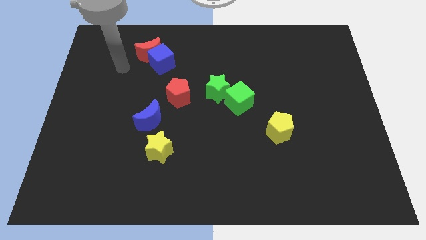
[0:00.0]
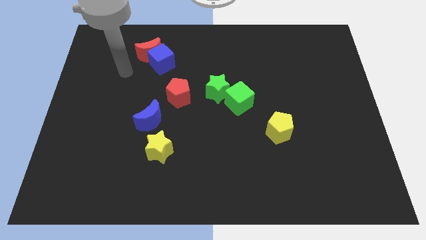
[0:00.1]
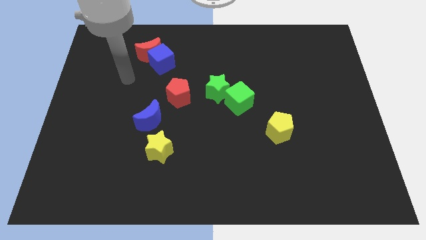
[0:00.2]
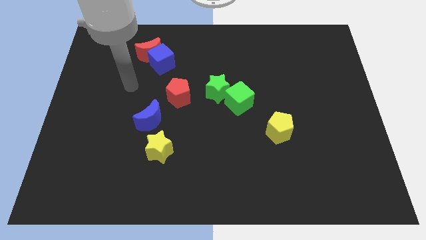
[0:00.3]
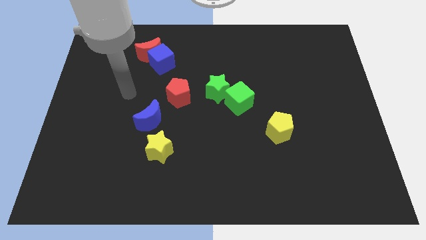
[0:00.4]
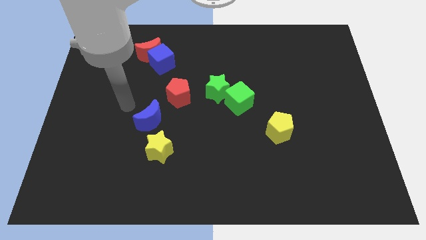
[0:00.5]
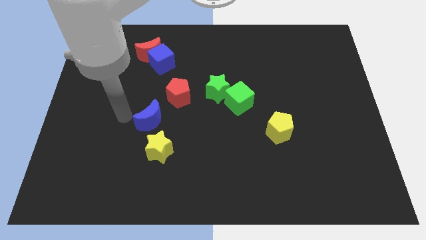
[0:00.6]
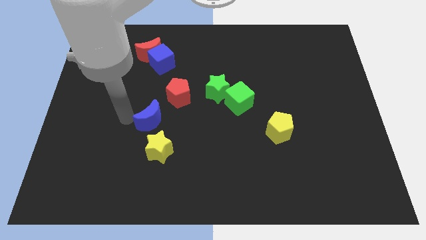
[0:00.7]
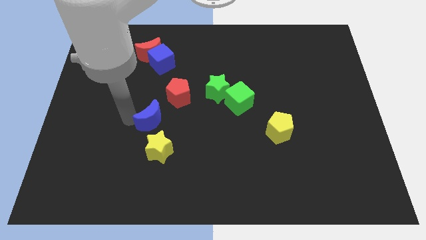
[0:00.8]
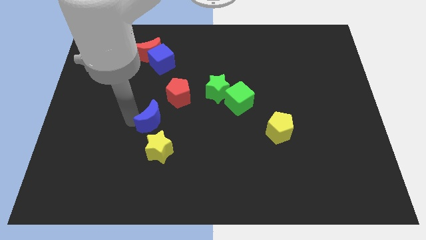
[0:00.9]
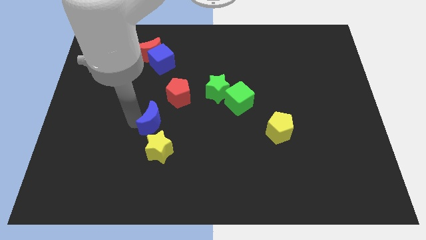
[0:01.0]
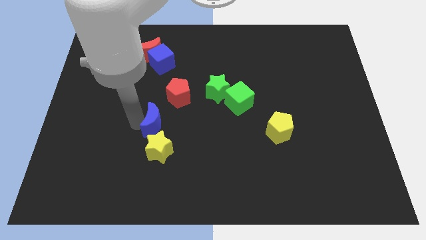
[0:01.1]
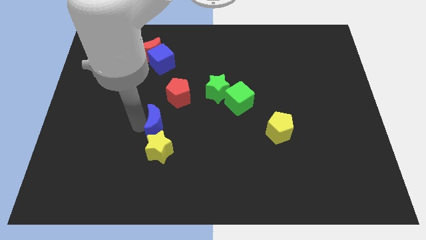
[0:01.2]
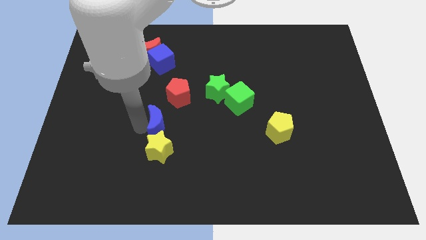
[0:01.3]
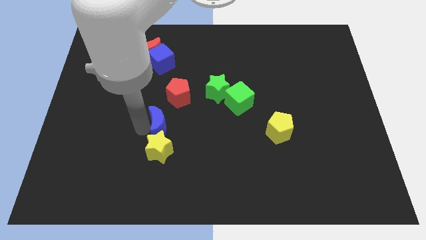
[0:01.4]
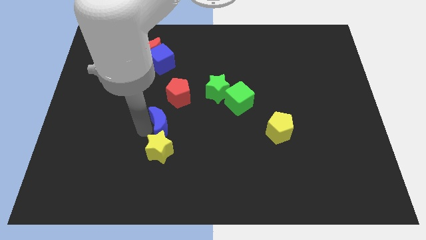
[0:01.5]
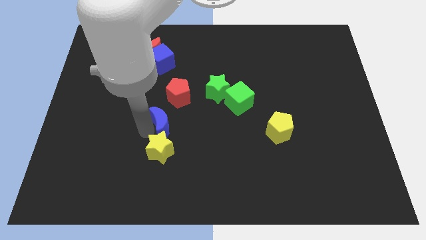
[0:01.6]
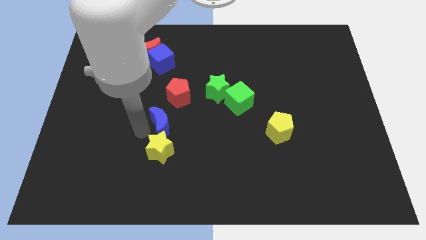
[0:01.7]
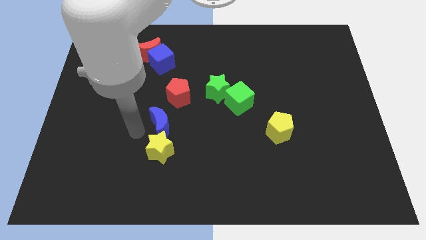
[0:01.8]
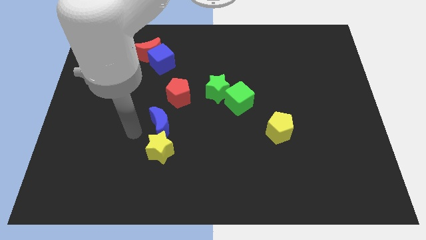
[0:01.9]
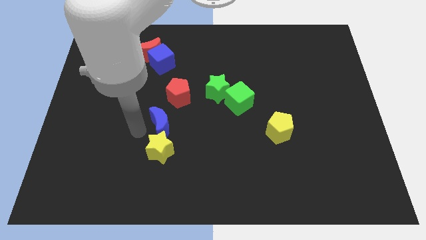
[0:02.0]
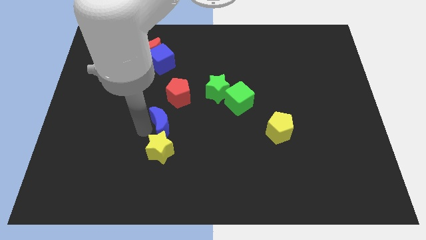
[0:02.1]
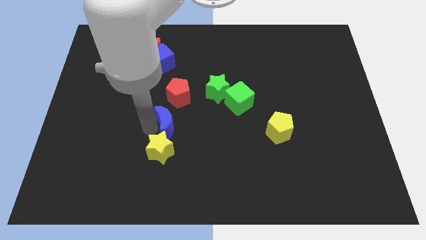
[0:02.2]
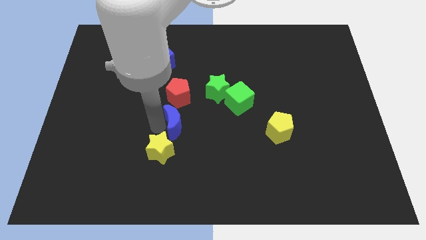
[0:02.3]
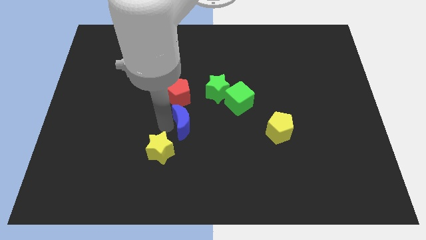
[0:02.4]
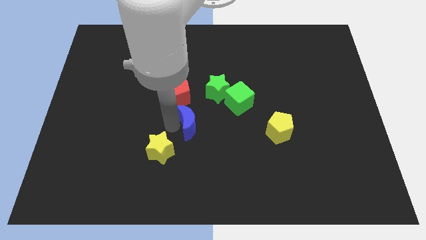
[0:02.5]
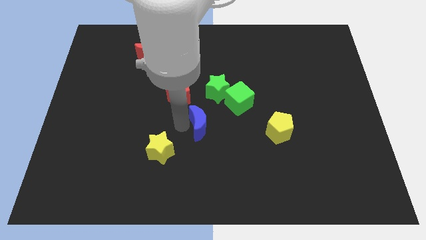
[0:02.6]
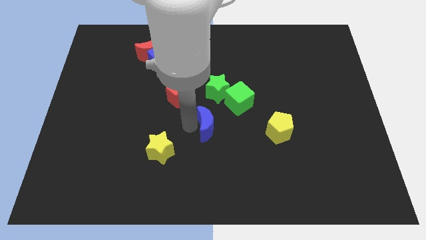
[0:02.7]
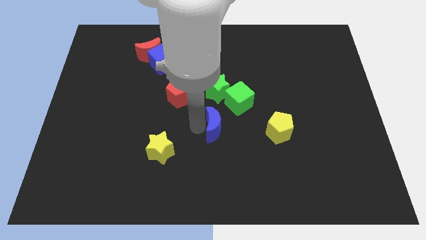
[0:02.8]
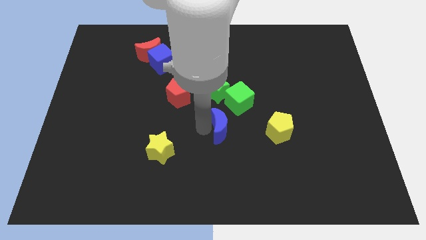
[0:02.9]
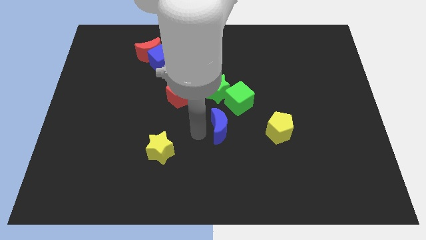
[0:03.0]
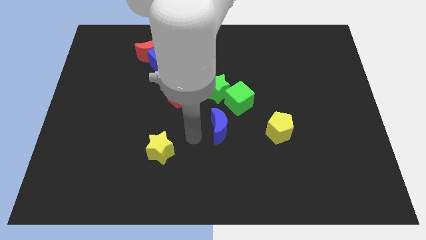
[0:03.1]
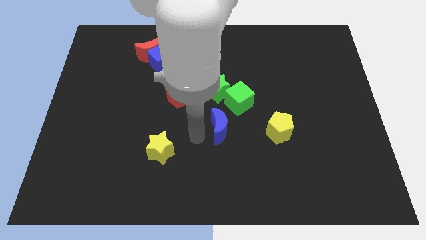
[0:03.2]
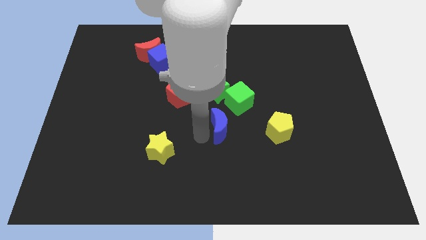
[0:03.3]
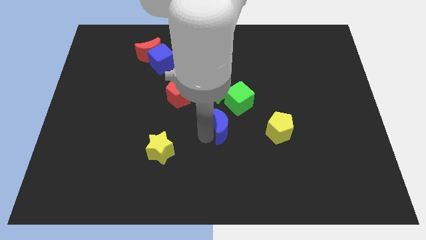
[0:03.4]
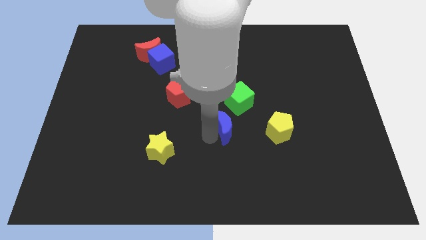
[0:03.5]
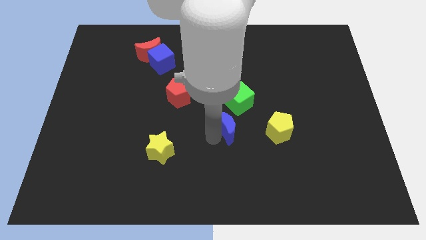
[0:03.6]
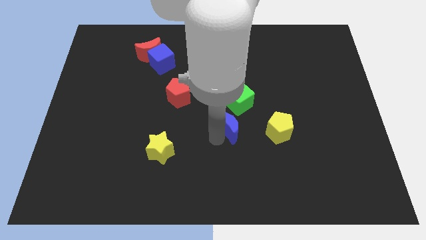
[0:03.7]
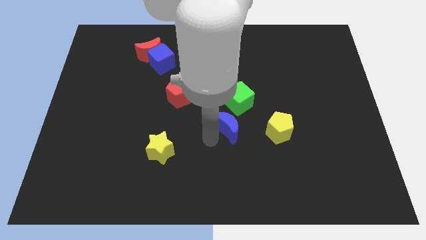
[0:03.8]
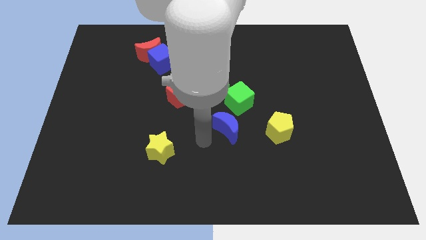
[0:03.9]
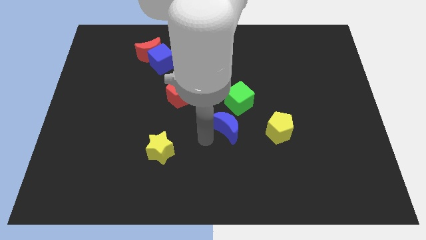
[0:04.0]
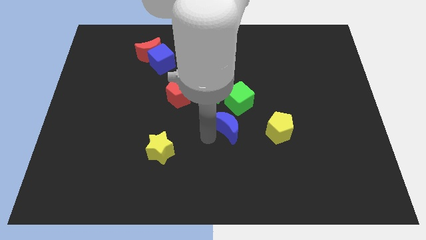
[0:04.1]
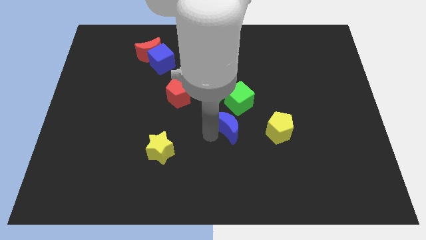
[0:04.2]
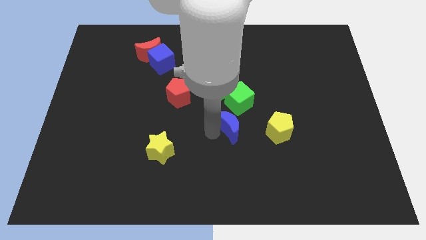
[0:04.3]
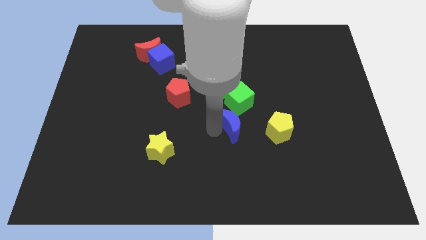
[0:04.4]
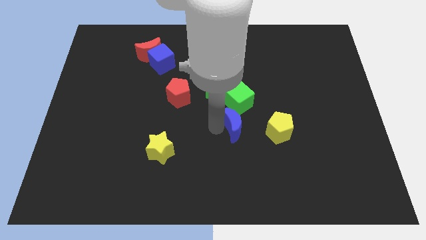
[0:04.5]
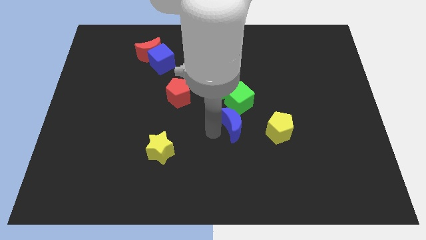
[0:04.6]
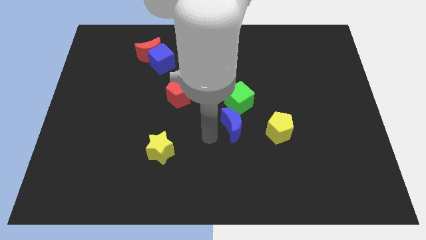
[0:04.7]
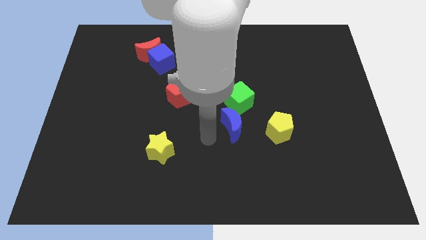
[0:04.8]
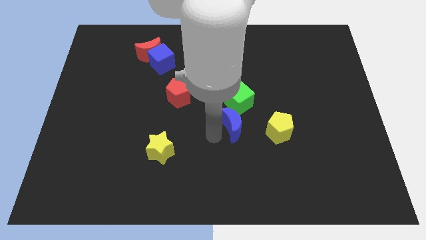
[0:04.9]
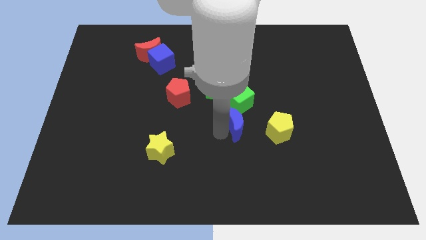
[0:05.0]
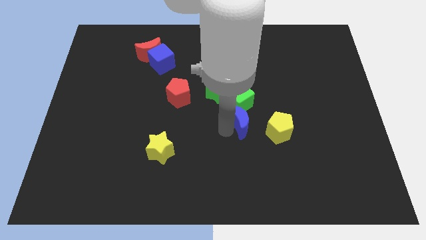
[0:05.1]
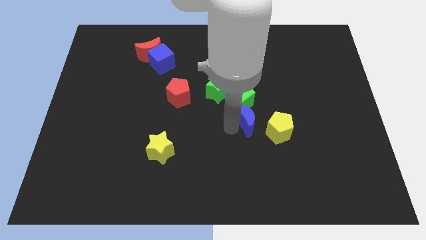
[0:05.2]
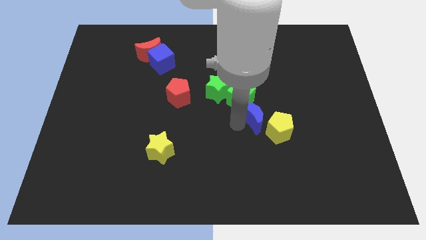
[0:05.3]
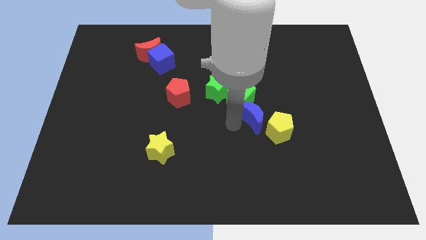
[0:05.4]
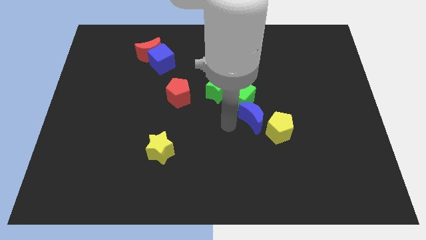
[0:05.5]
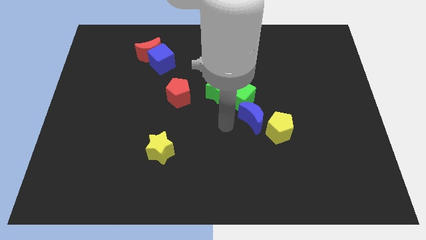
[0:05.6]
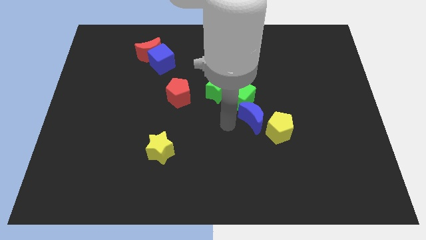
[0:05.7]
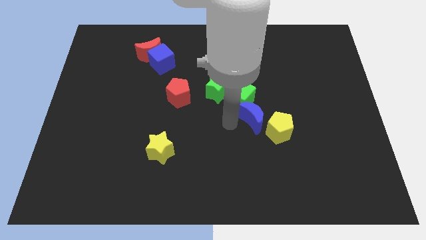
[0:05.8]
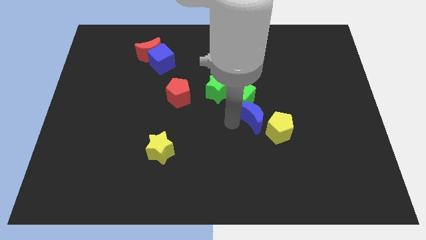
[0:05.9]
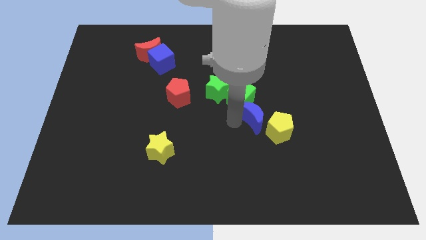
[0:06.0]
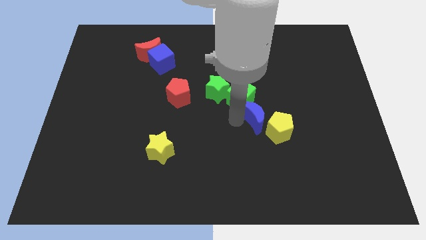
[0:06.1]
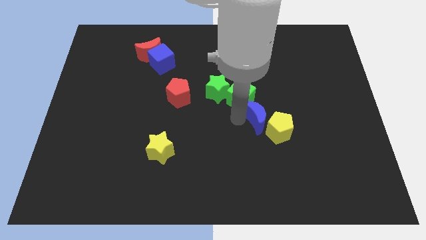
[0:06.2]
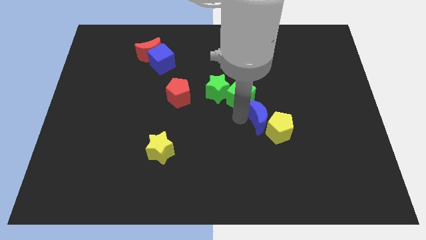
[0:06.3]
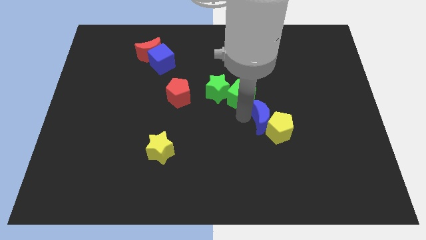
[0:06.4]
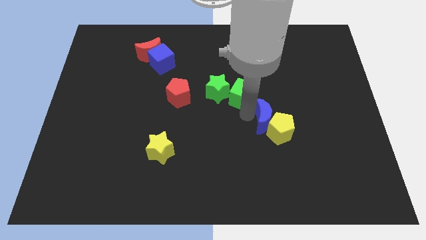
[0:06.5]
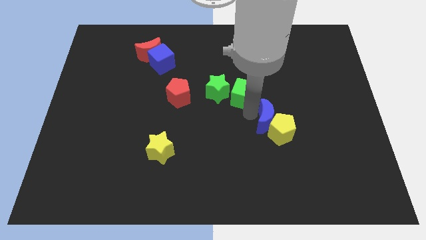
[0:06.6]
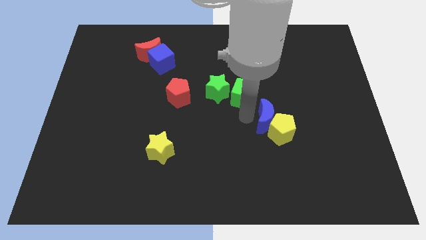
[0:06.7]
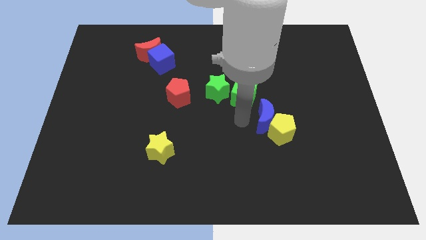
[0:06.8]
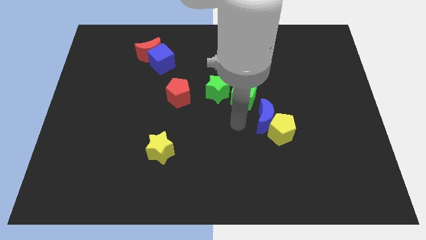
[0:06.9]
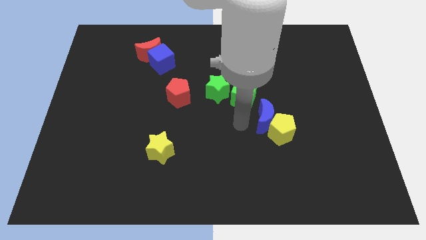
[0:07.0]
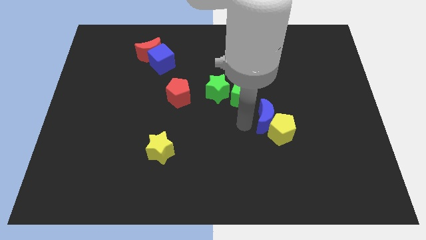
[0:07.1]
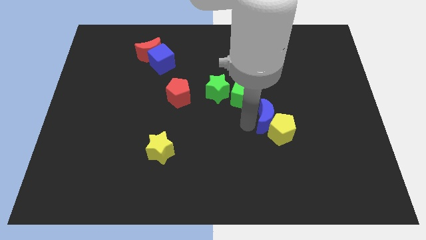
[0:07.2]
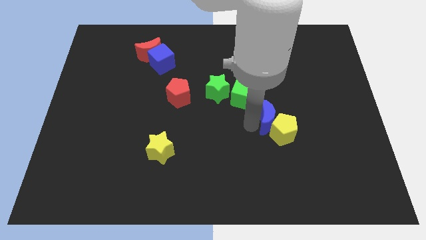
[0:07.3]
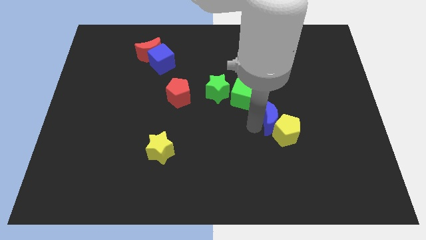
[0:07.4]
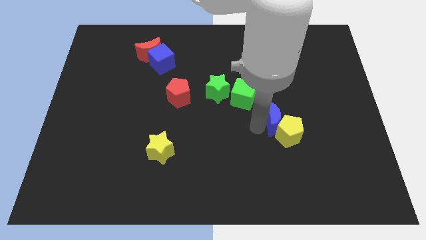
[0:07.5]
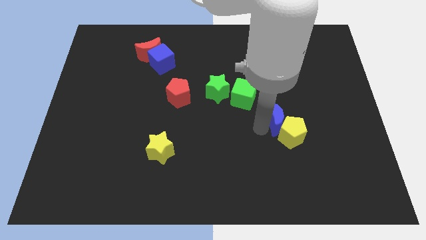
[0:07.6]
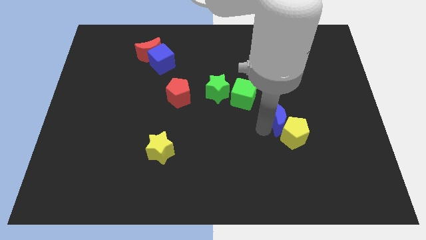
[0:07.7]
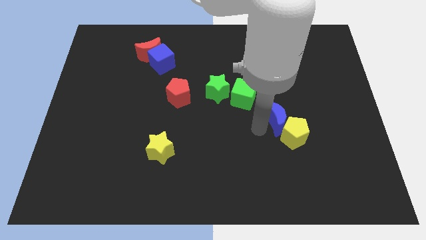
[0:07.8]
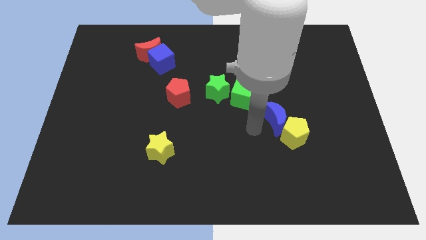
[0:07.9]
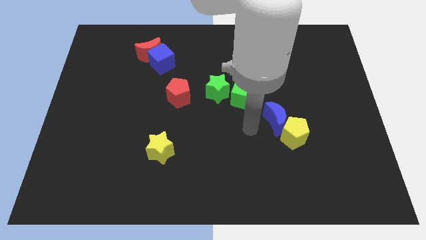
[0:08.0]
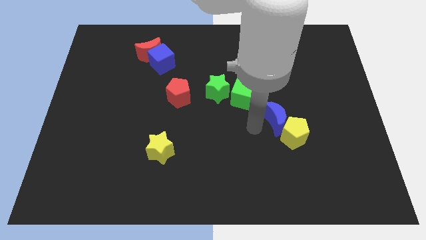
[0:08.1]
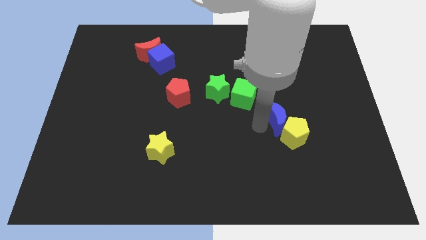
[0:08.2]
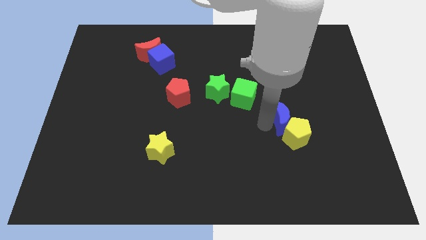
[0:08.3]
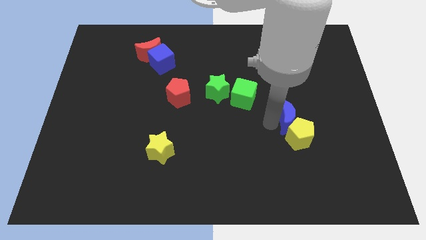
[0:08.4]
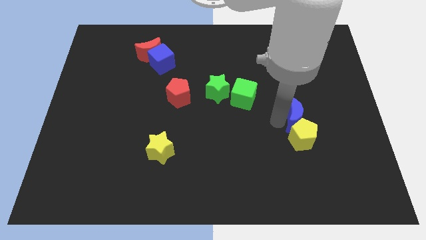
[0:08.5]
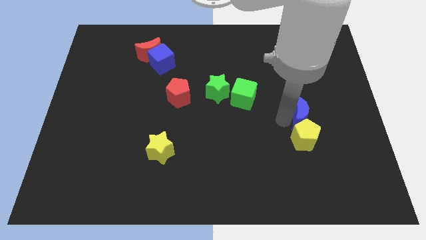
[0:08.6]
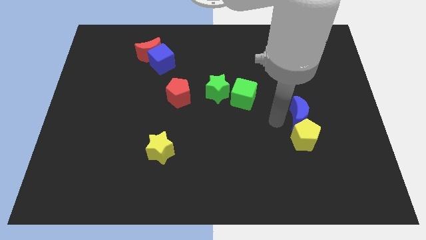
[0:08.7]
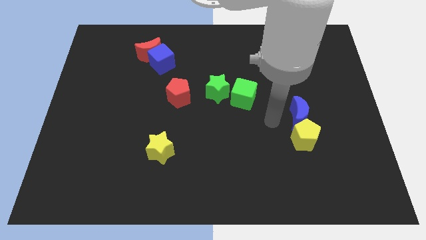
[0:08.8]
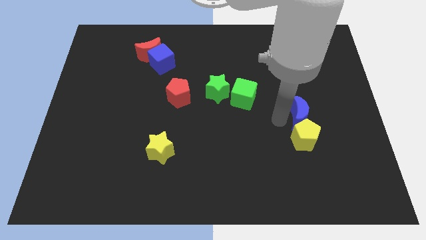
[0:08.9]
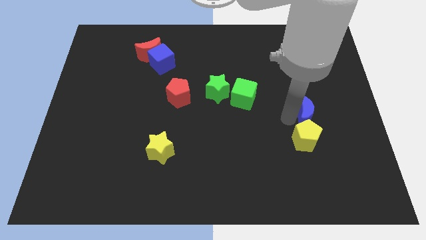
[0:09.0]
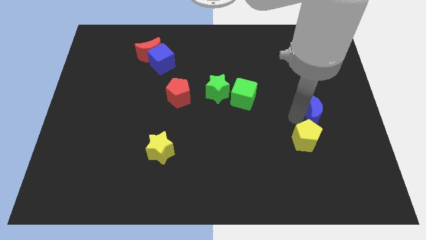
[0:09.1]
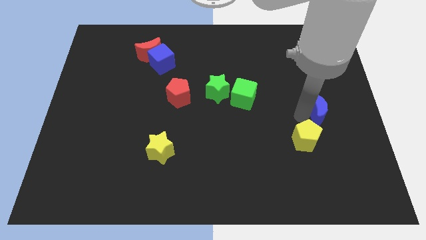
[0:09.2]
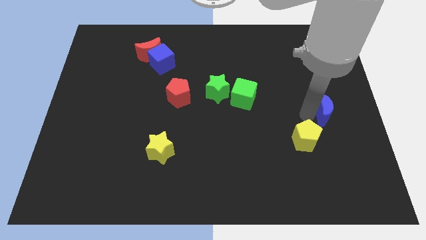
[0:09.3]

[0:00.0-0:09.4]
push the blue moon to the right side of the board
